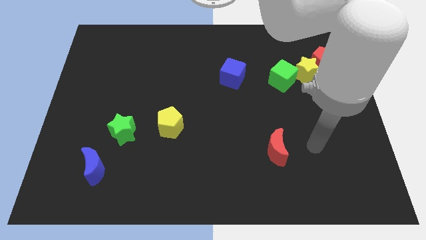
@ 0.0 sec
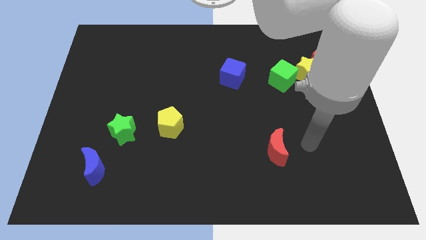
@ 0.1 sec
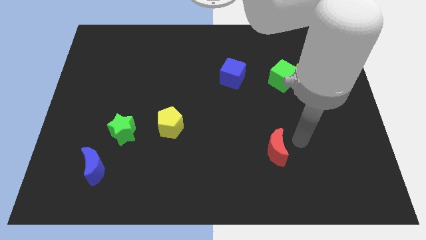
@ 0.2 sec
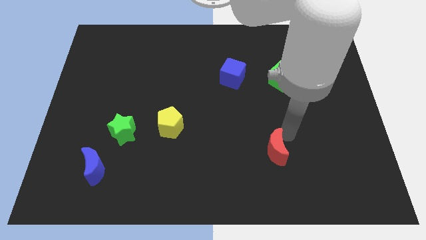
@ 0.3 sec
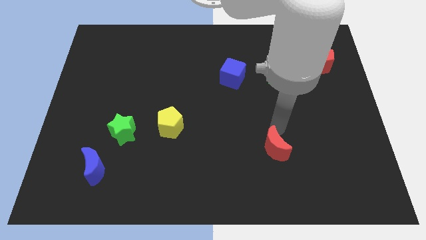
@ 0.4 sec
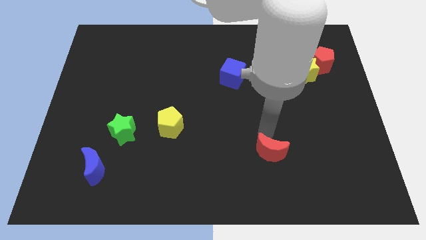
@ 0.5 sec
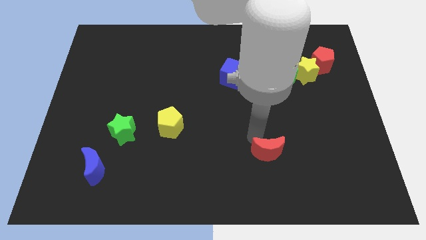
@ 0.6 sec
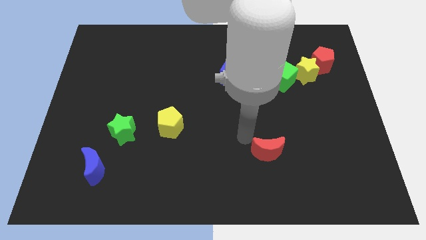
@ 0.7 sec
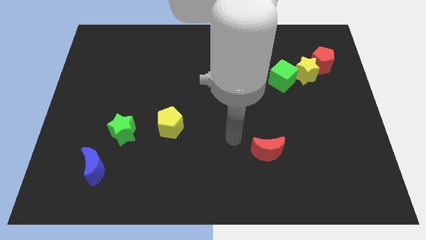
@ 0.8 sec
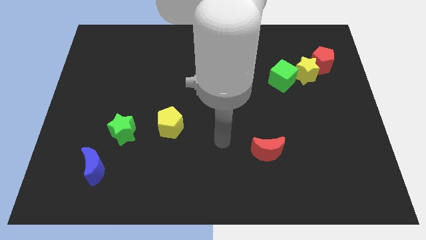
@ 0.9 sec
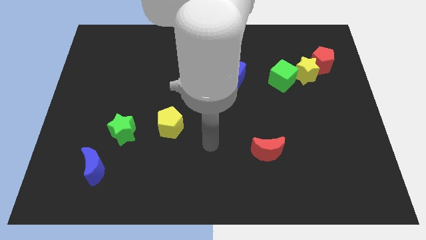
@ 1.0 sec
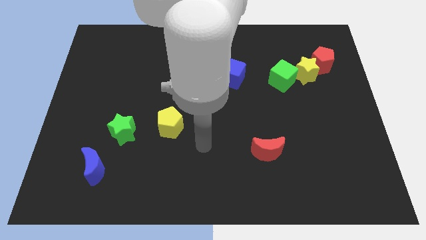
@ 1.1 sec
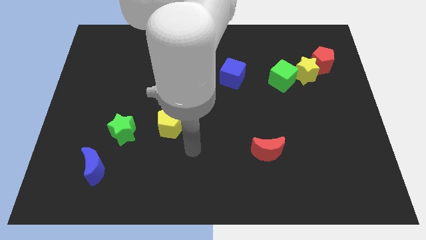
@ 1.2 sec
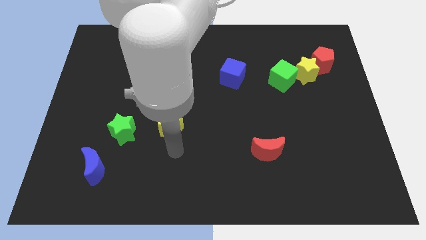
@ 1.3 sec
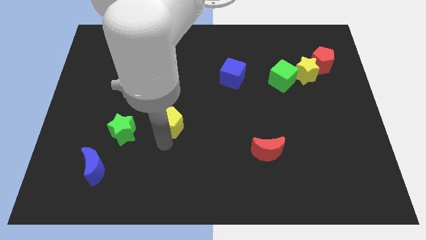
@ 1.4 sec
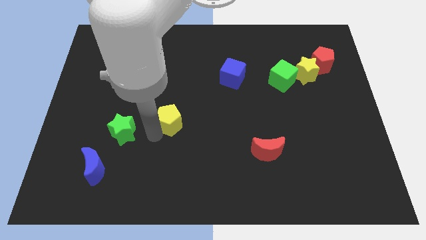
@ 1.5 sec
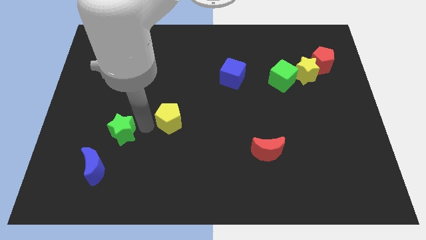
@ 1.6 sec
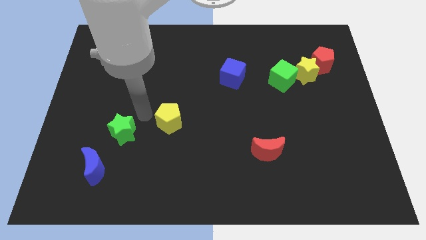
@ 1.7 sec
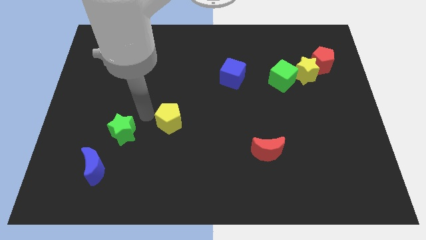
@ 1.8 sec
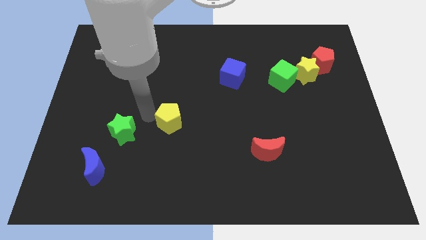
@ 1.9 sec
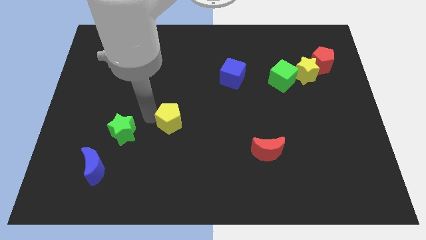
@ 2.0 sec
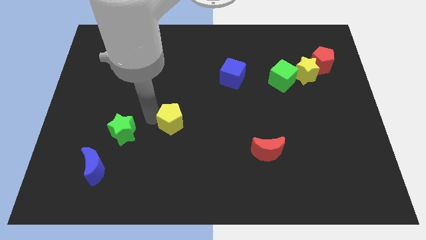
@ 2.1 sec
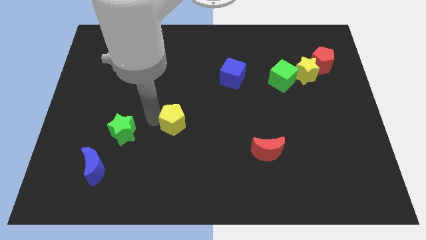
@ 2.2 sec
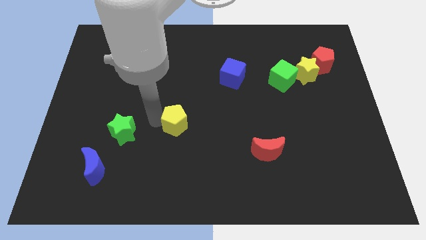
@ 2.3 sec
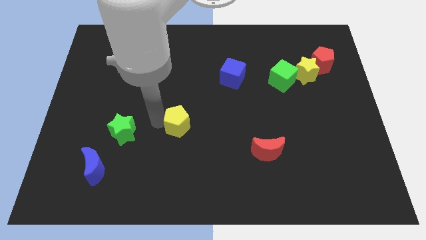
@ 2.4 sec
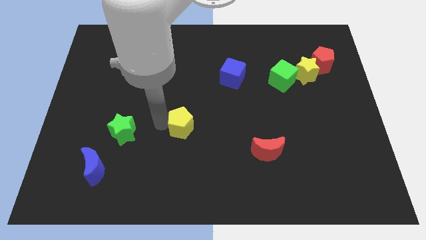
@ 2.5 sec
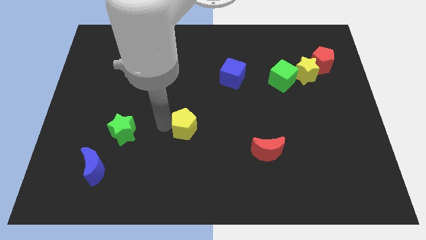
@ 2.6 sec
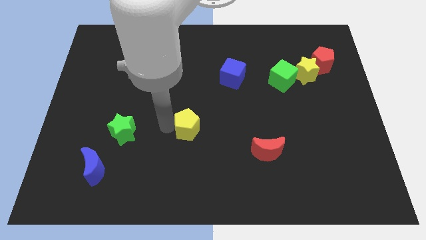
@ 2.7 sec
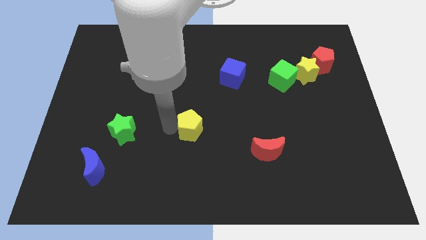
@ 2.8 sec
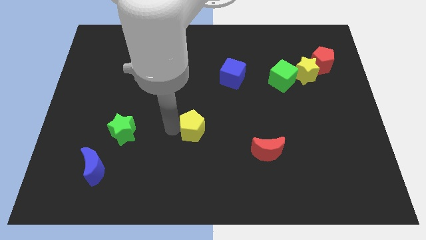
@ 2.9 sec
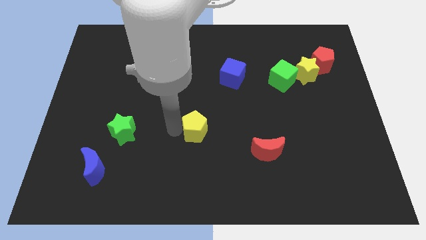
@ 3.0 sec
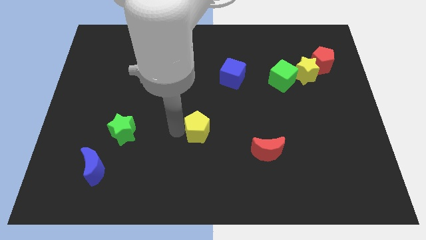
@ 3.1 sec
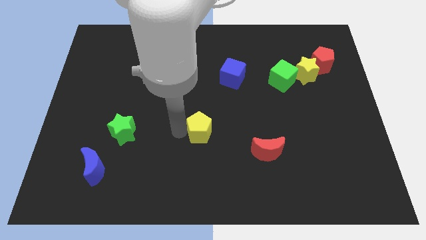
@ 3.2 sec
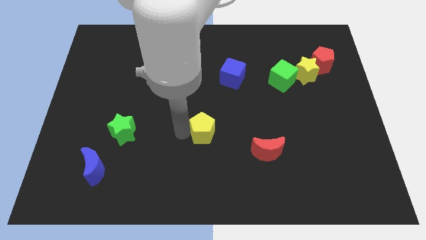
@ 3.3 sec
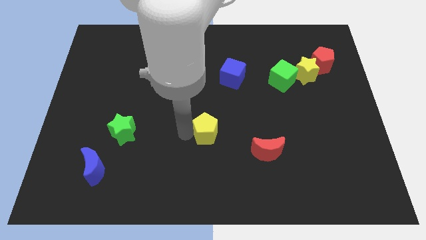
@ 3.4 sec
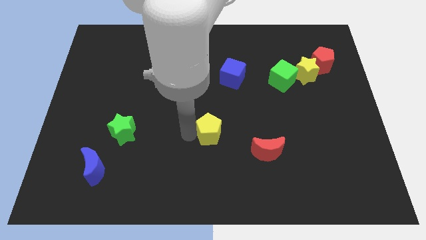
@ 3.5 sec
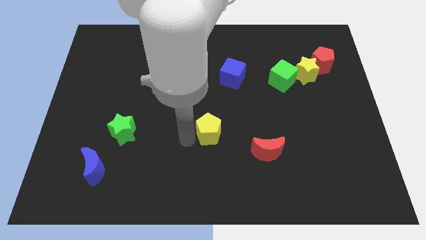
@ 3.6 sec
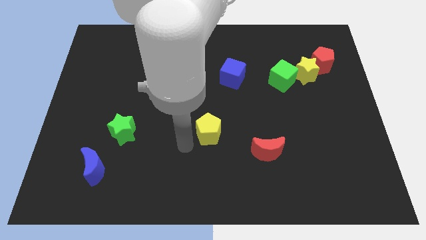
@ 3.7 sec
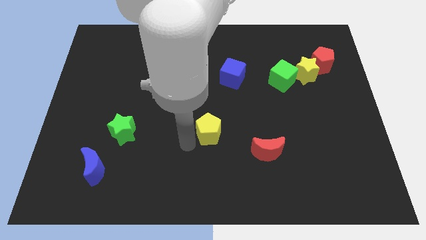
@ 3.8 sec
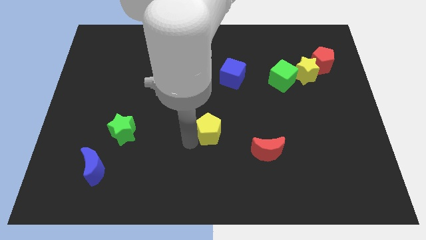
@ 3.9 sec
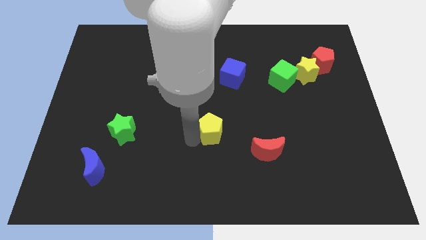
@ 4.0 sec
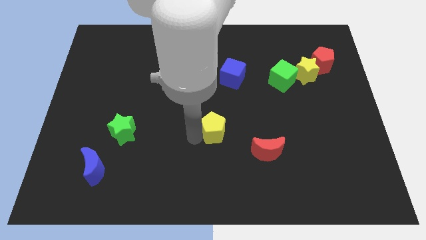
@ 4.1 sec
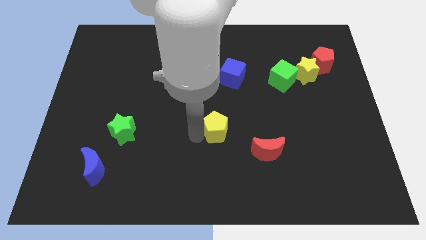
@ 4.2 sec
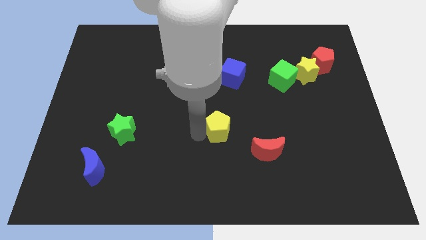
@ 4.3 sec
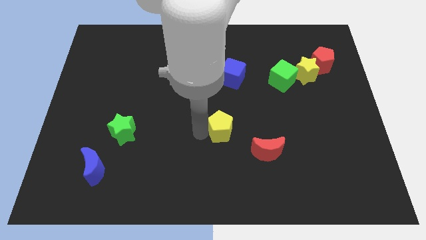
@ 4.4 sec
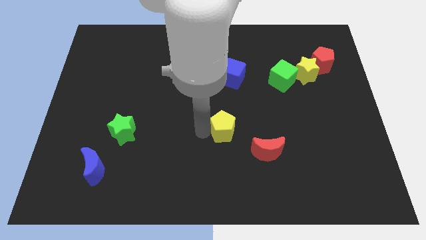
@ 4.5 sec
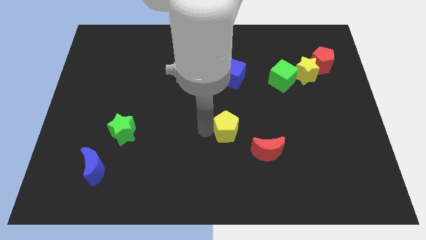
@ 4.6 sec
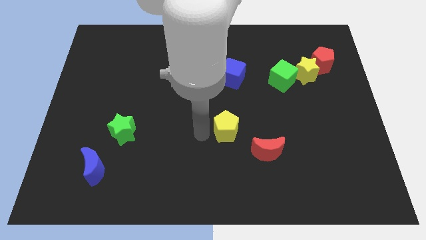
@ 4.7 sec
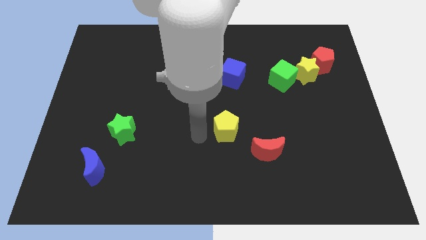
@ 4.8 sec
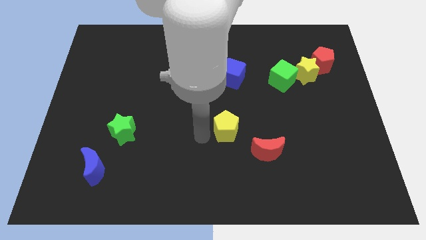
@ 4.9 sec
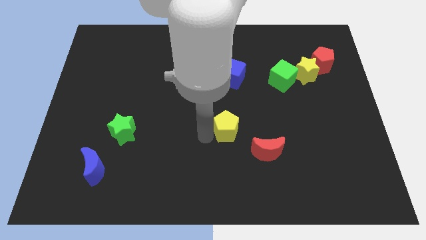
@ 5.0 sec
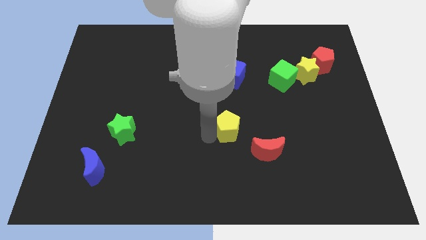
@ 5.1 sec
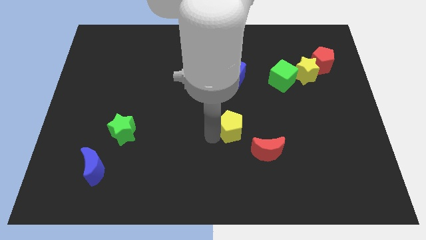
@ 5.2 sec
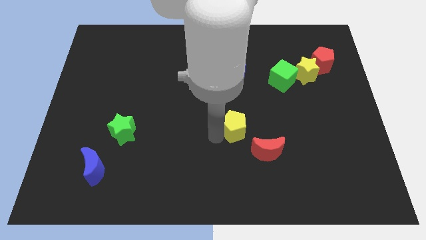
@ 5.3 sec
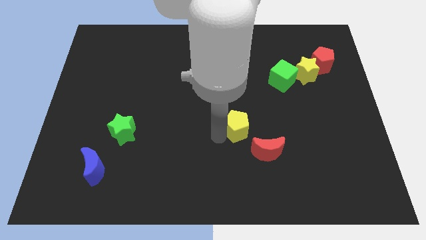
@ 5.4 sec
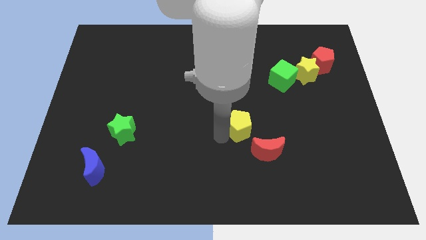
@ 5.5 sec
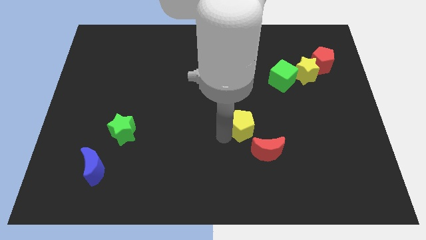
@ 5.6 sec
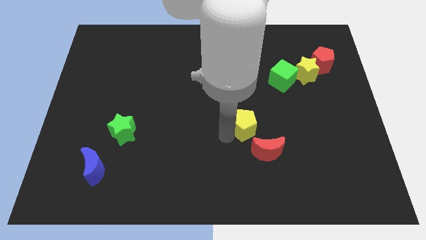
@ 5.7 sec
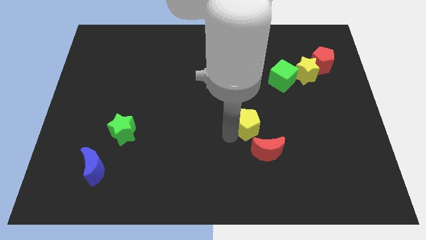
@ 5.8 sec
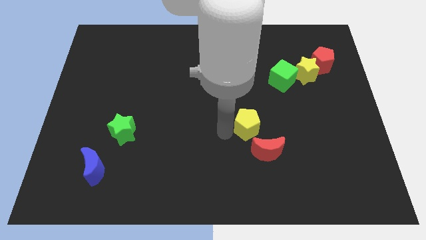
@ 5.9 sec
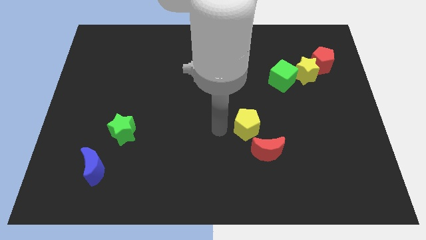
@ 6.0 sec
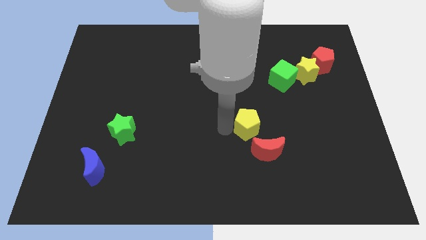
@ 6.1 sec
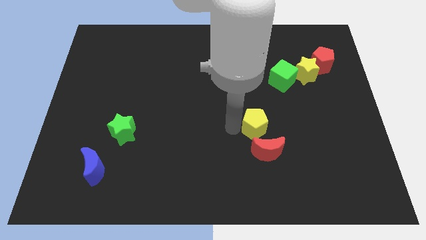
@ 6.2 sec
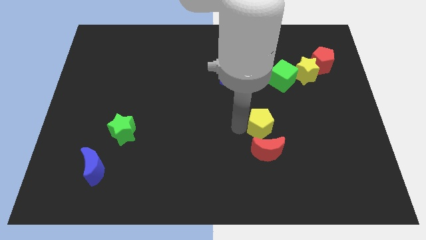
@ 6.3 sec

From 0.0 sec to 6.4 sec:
slide the yellow pentagon right

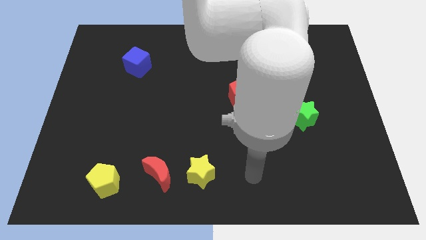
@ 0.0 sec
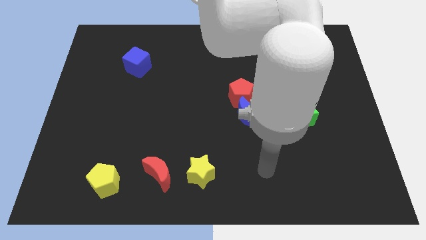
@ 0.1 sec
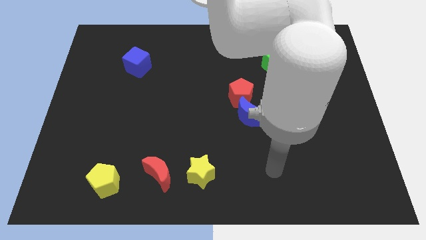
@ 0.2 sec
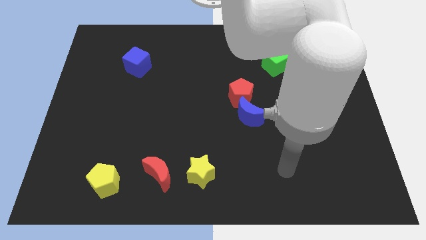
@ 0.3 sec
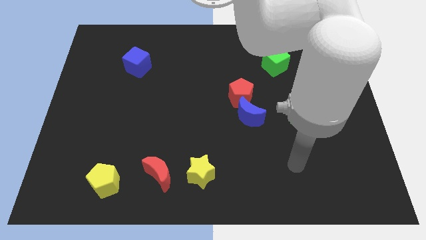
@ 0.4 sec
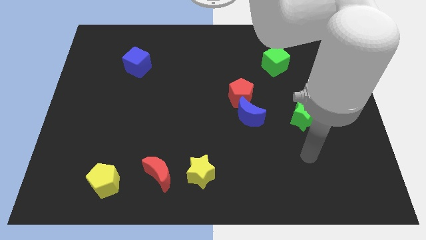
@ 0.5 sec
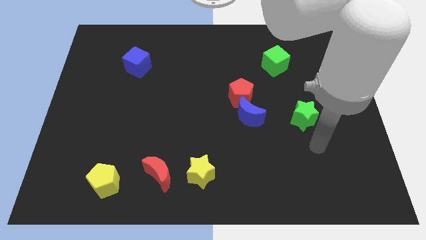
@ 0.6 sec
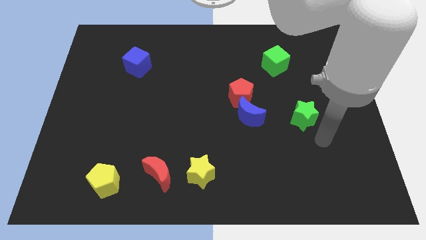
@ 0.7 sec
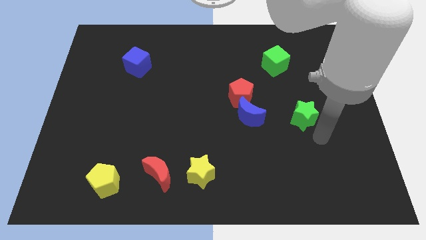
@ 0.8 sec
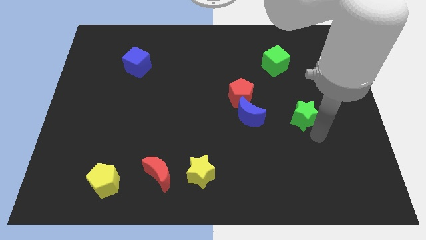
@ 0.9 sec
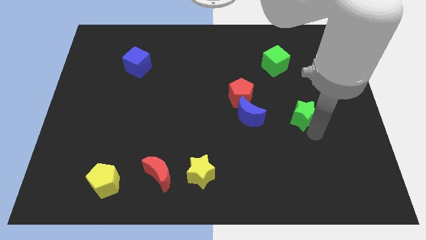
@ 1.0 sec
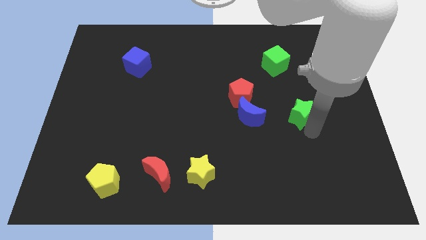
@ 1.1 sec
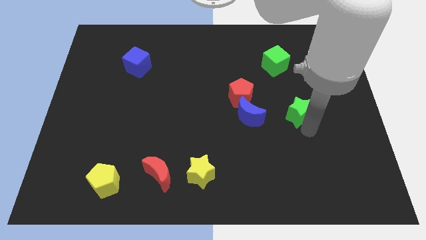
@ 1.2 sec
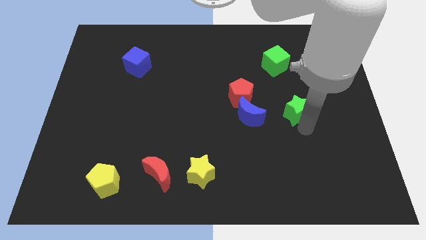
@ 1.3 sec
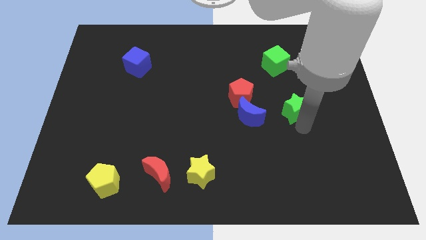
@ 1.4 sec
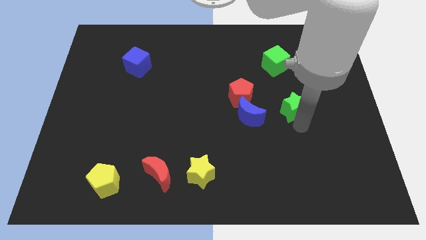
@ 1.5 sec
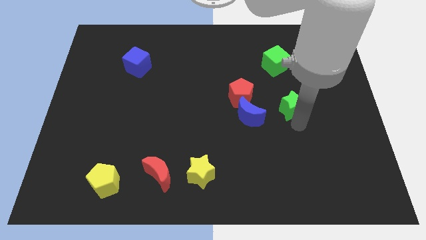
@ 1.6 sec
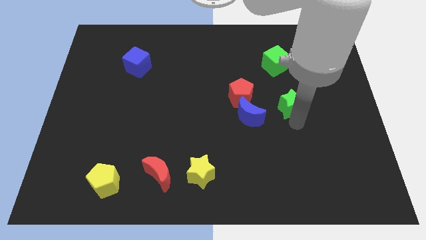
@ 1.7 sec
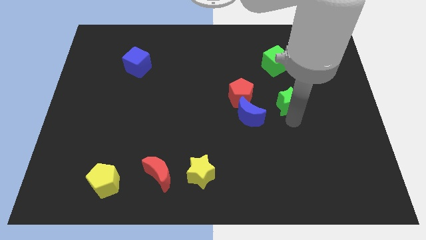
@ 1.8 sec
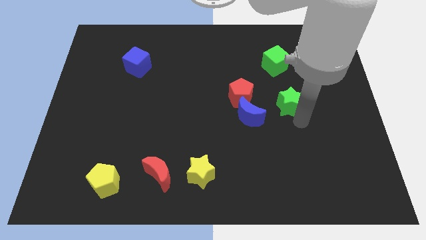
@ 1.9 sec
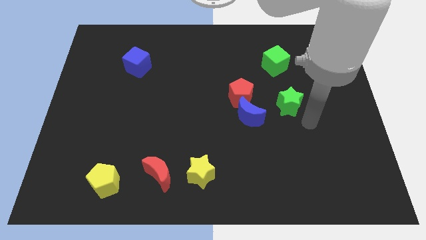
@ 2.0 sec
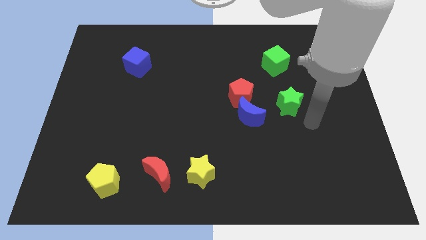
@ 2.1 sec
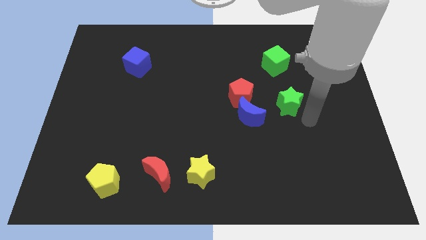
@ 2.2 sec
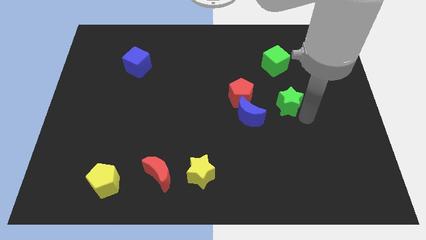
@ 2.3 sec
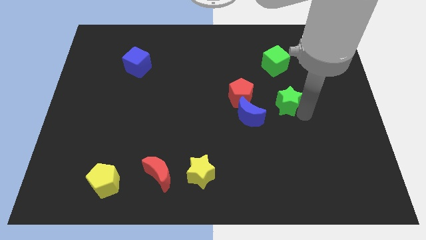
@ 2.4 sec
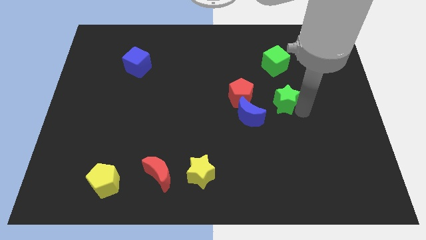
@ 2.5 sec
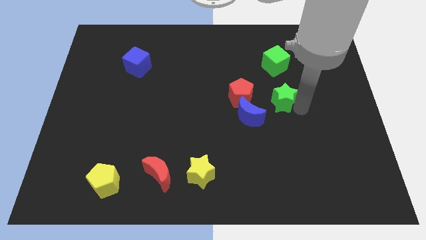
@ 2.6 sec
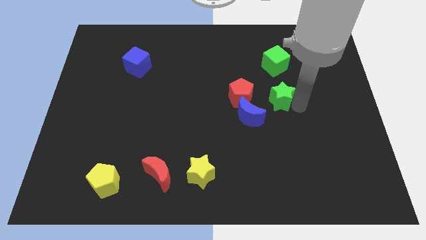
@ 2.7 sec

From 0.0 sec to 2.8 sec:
push the green star diagonally upwards and to the left somewhat
